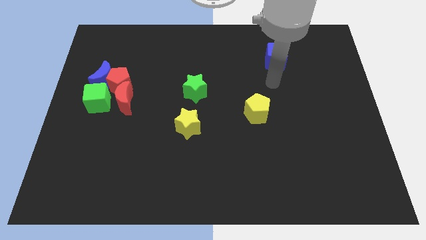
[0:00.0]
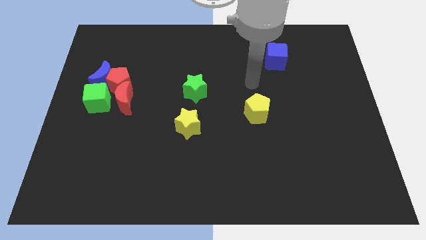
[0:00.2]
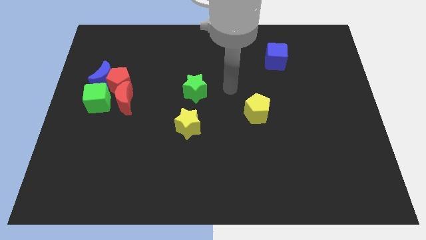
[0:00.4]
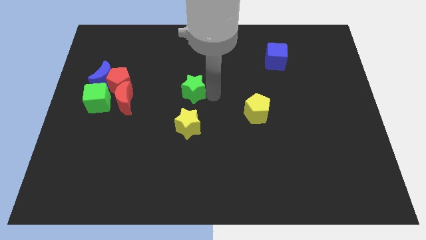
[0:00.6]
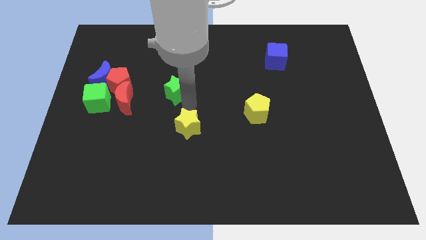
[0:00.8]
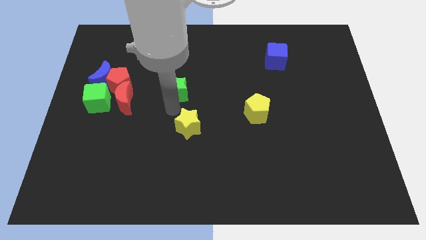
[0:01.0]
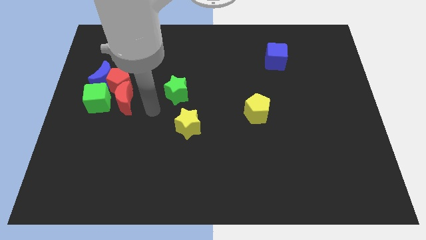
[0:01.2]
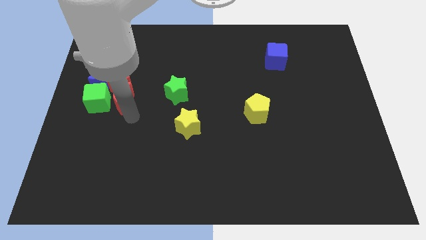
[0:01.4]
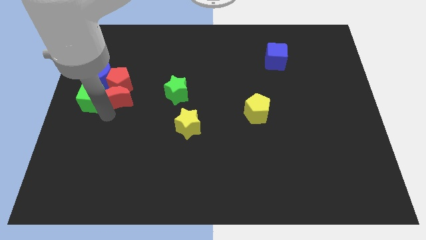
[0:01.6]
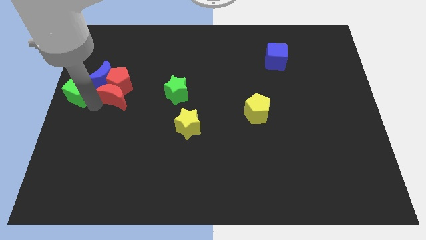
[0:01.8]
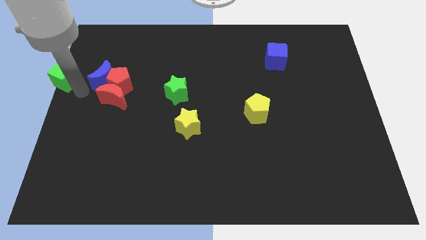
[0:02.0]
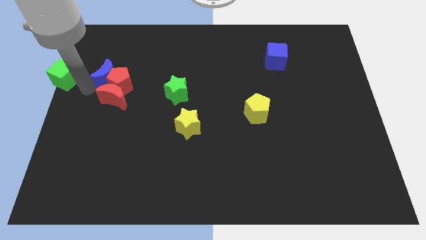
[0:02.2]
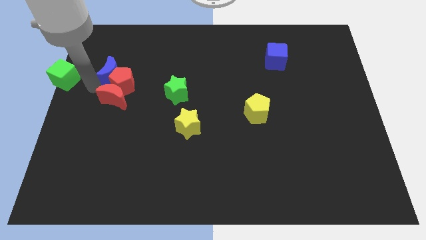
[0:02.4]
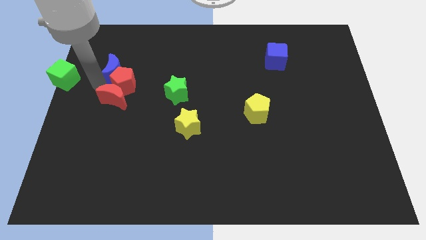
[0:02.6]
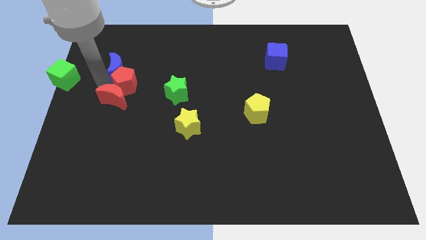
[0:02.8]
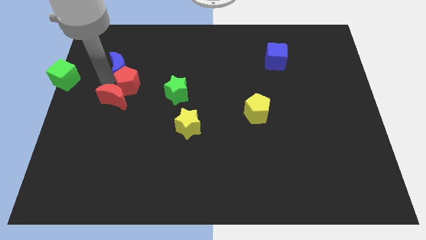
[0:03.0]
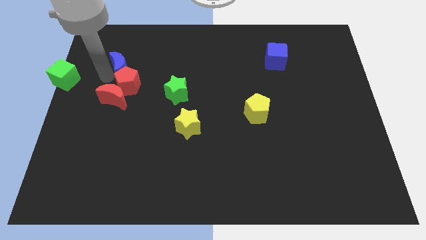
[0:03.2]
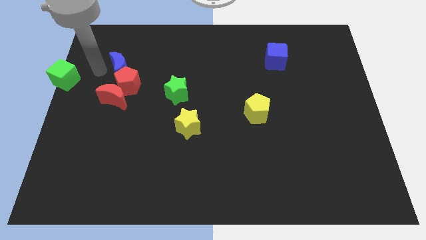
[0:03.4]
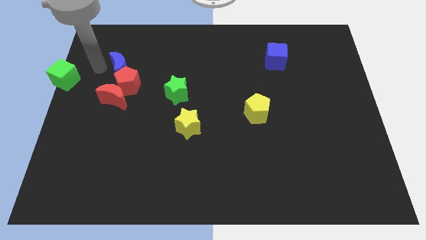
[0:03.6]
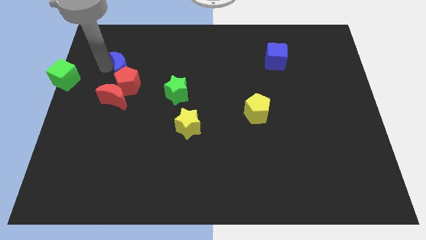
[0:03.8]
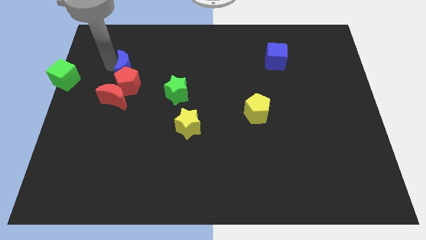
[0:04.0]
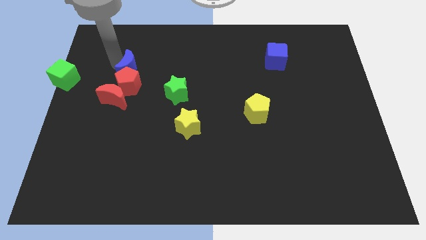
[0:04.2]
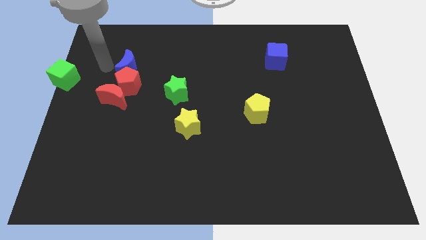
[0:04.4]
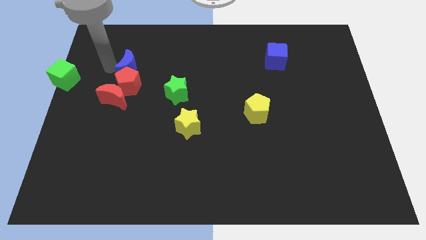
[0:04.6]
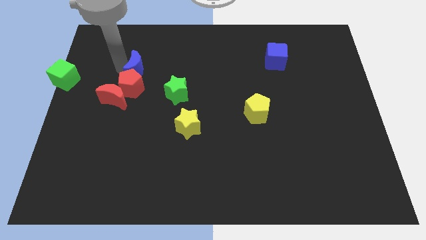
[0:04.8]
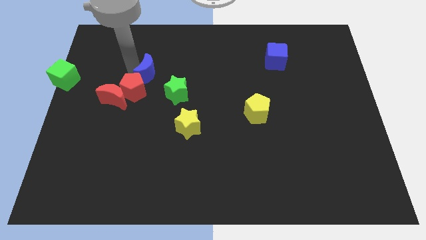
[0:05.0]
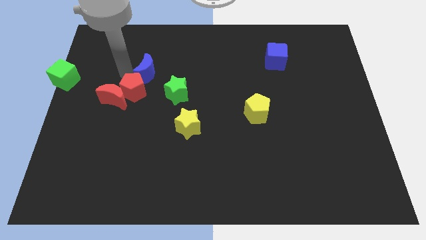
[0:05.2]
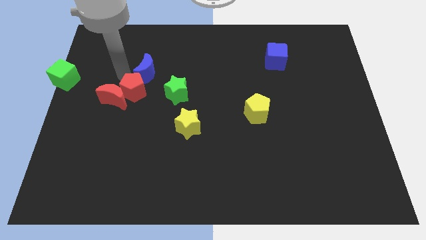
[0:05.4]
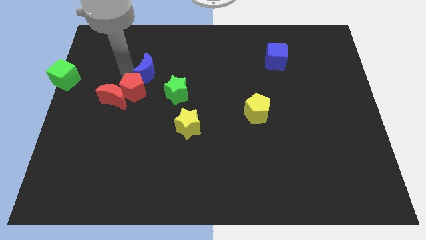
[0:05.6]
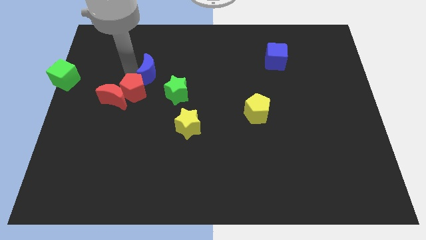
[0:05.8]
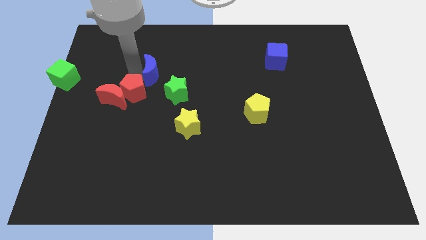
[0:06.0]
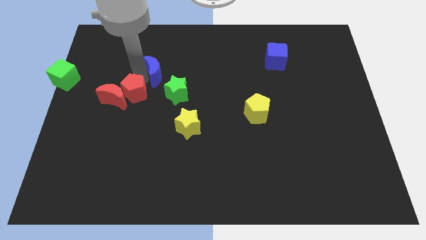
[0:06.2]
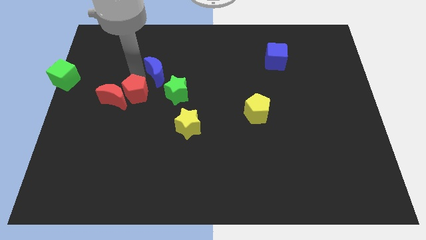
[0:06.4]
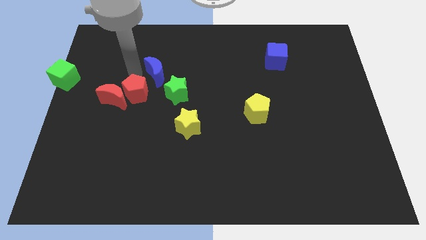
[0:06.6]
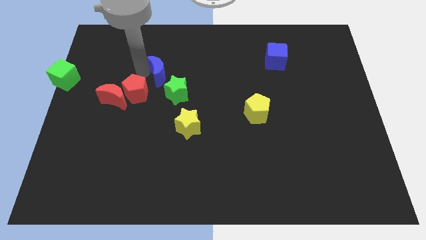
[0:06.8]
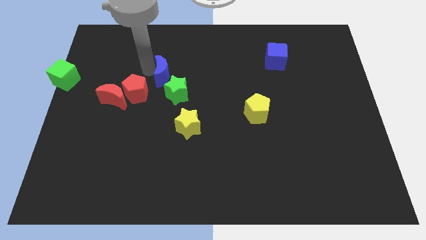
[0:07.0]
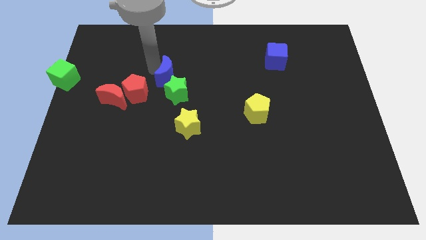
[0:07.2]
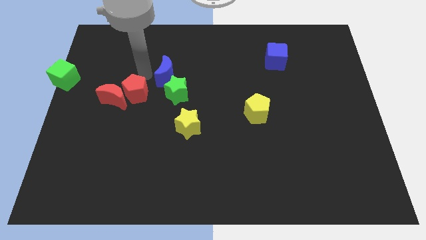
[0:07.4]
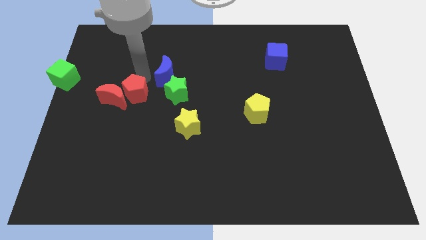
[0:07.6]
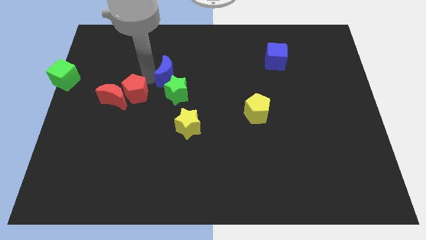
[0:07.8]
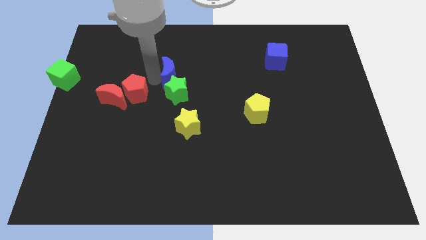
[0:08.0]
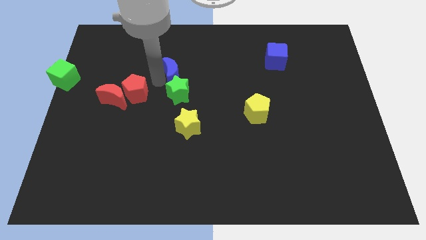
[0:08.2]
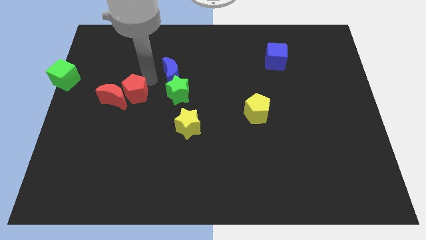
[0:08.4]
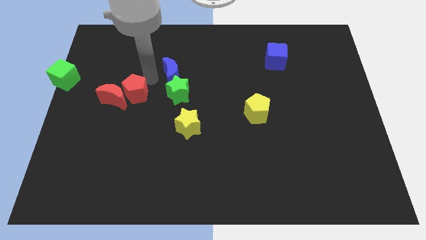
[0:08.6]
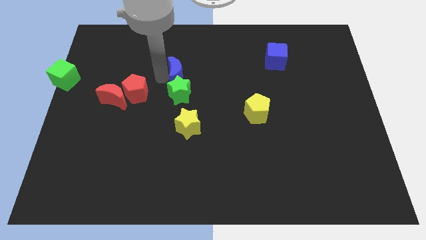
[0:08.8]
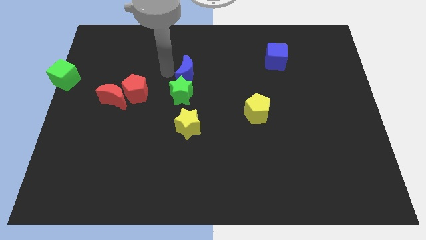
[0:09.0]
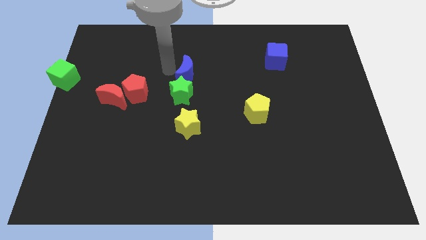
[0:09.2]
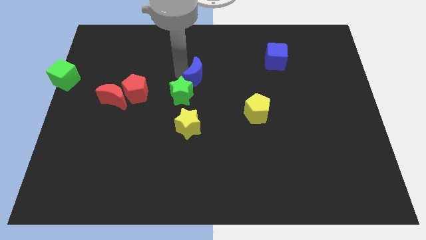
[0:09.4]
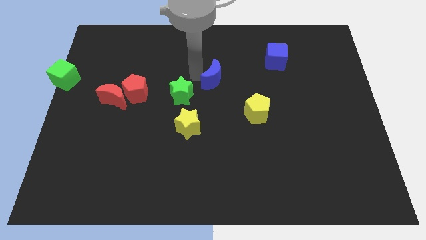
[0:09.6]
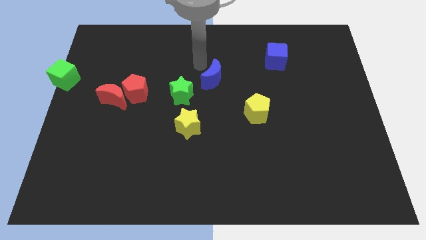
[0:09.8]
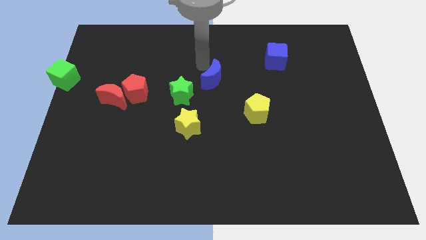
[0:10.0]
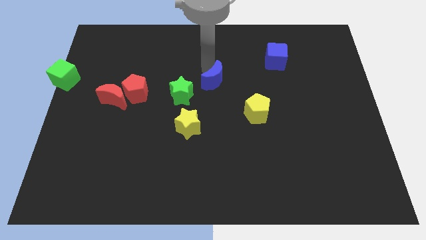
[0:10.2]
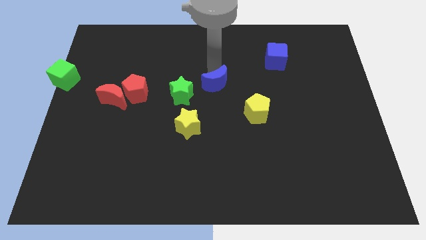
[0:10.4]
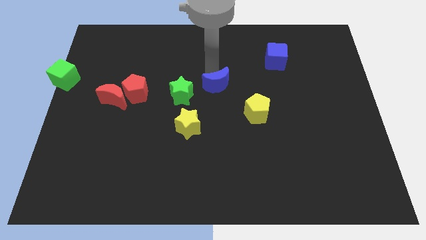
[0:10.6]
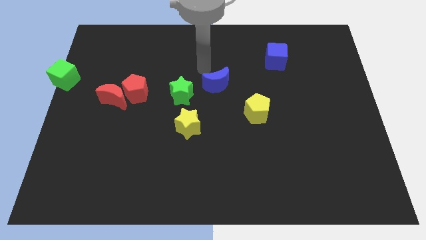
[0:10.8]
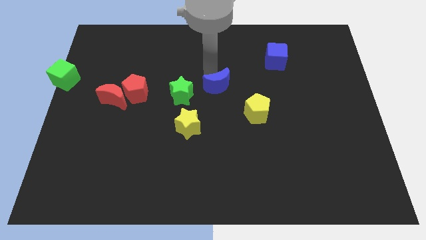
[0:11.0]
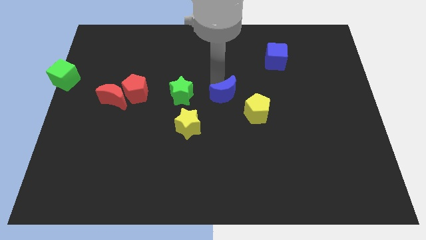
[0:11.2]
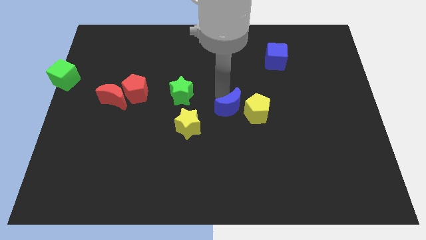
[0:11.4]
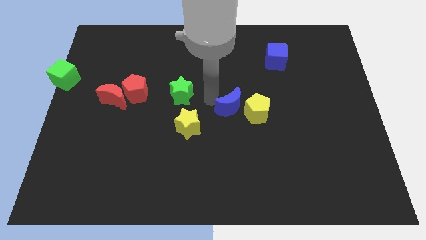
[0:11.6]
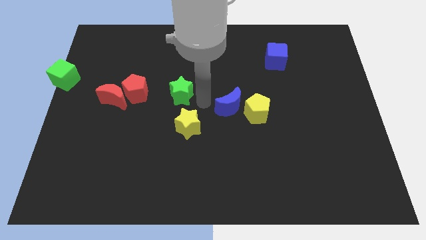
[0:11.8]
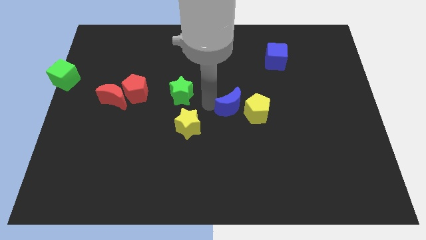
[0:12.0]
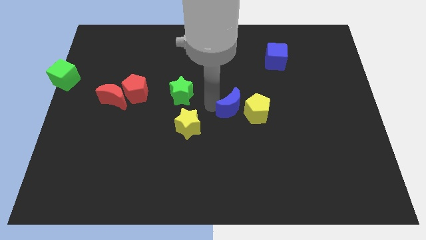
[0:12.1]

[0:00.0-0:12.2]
move the blue moon towards the yellow pentagon

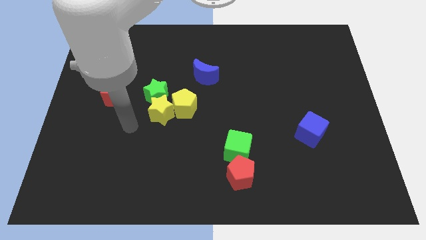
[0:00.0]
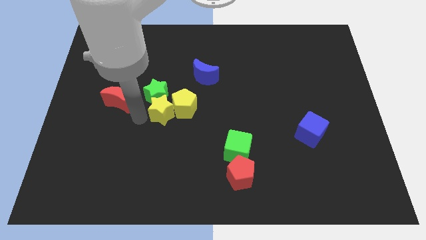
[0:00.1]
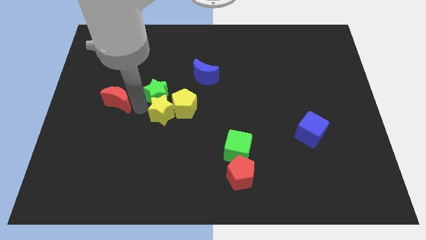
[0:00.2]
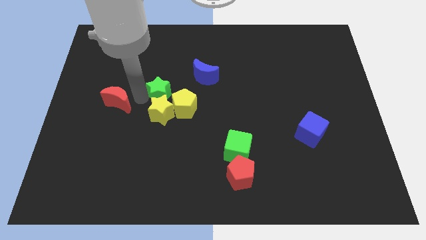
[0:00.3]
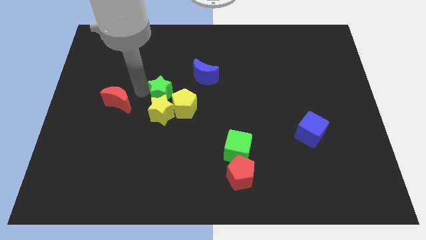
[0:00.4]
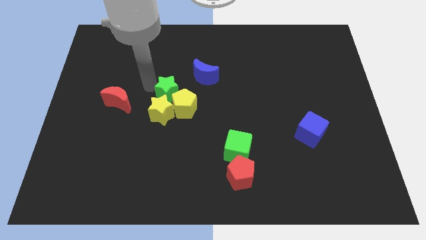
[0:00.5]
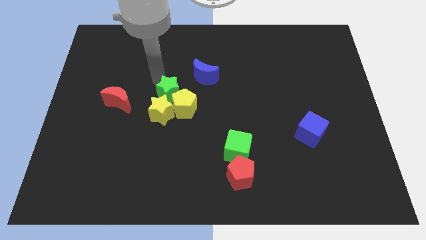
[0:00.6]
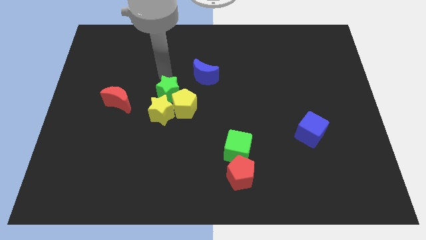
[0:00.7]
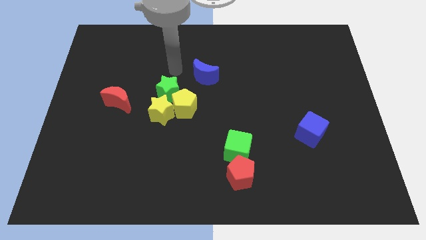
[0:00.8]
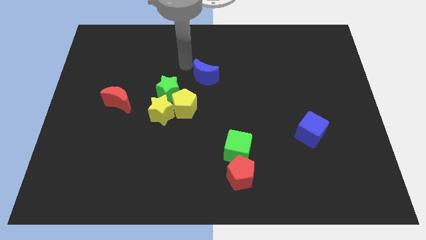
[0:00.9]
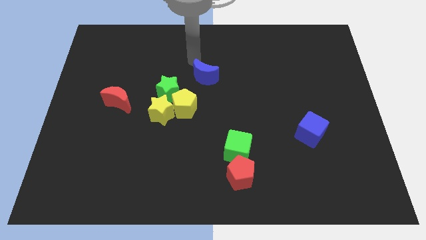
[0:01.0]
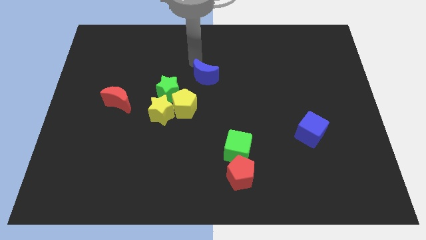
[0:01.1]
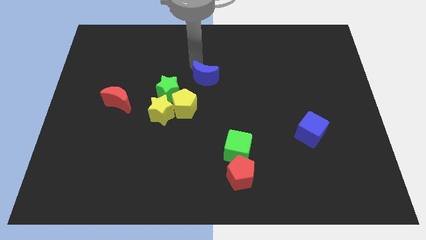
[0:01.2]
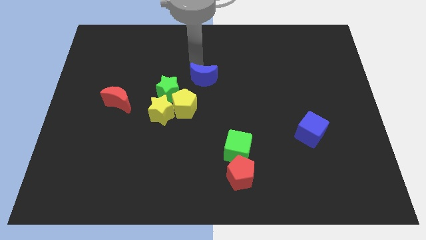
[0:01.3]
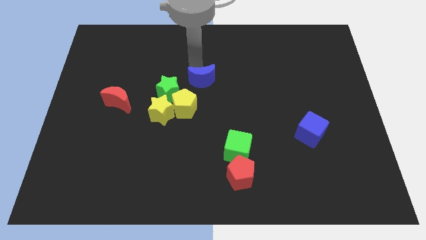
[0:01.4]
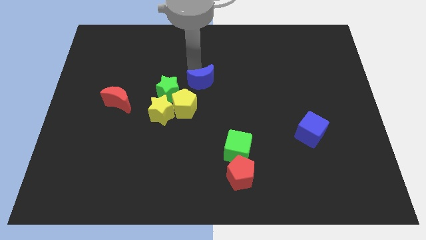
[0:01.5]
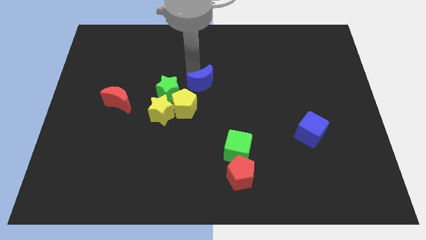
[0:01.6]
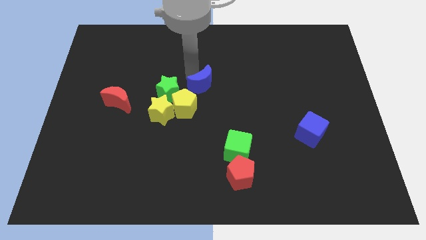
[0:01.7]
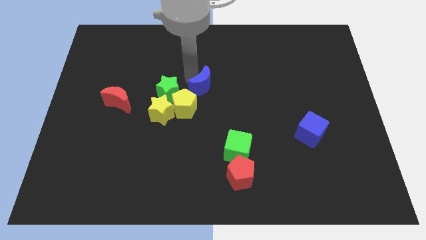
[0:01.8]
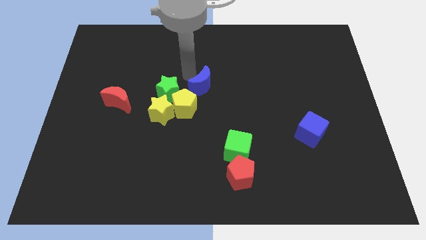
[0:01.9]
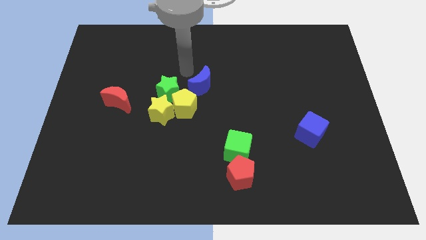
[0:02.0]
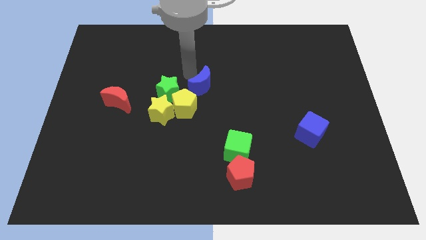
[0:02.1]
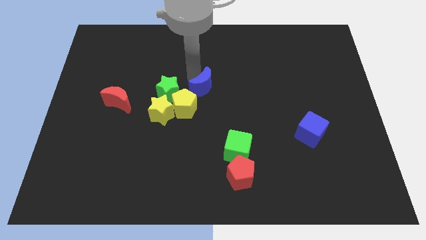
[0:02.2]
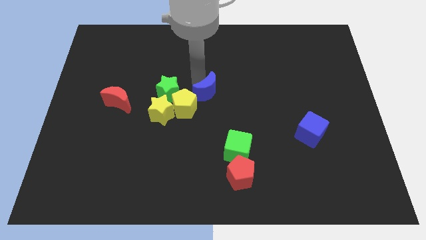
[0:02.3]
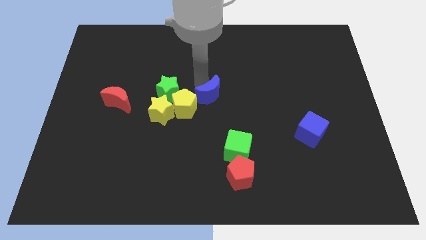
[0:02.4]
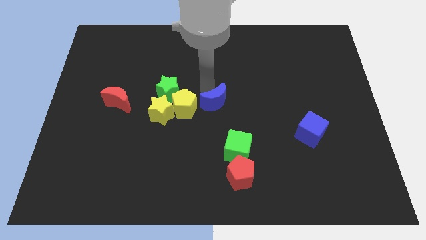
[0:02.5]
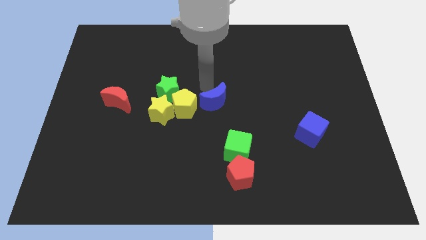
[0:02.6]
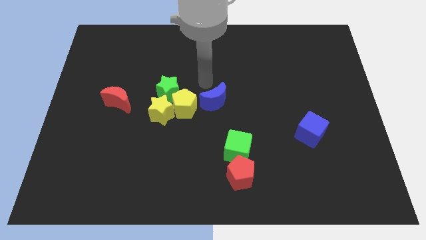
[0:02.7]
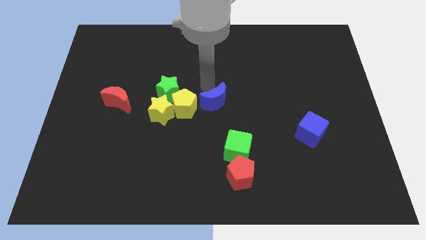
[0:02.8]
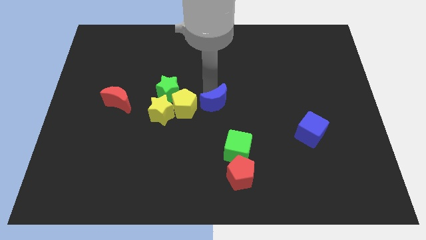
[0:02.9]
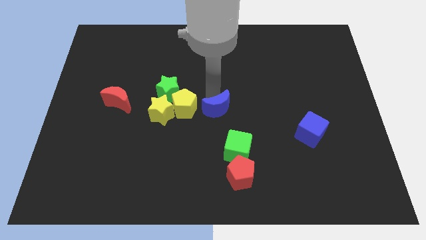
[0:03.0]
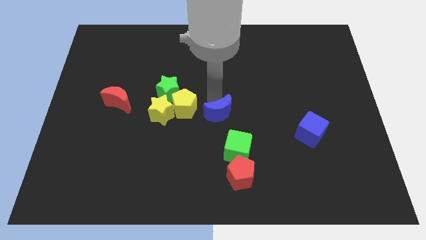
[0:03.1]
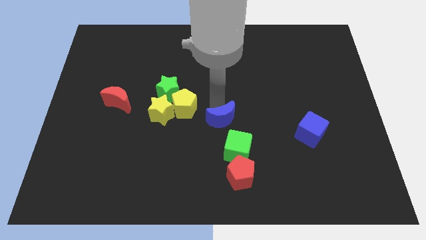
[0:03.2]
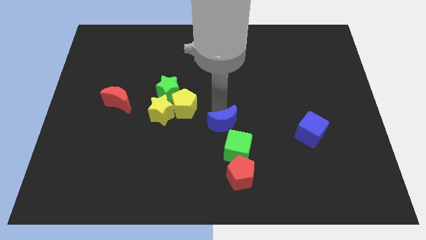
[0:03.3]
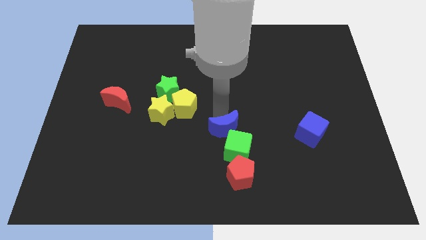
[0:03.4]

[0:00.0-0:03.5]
put the blue moon towards the green cube
